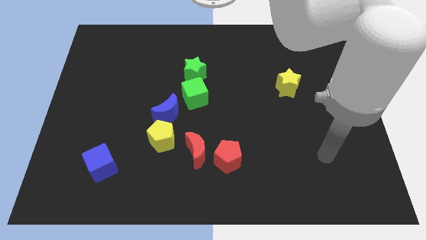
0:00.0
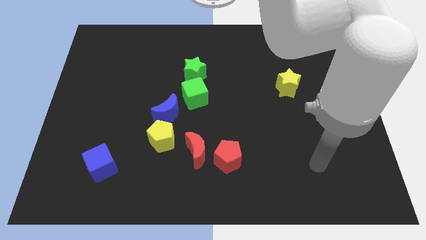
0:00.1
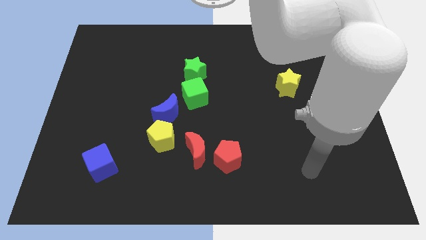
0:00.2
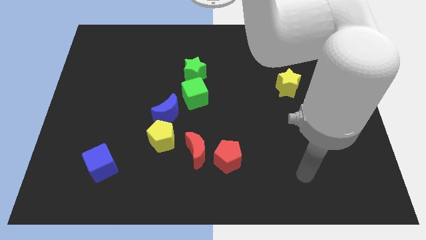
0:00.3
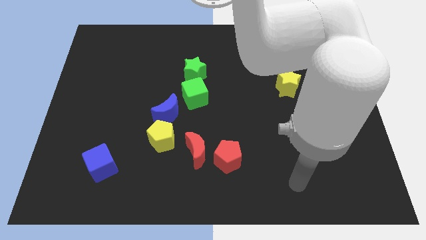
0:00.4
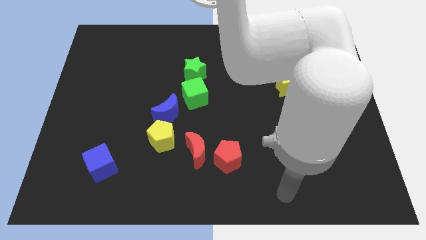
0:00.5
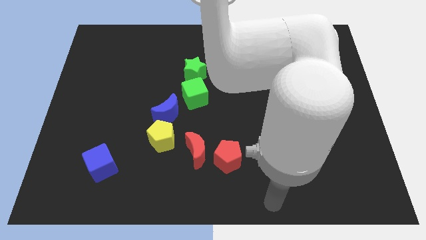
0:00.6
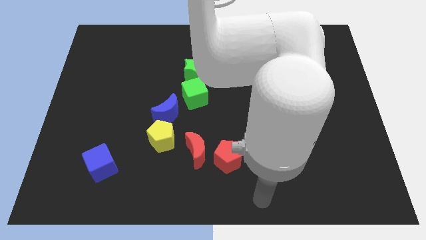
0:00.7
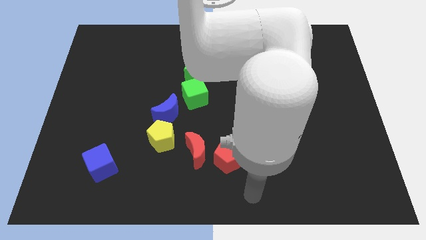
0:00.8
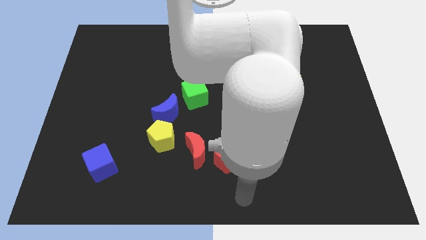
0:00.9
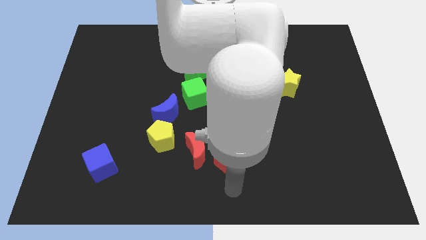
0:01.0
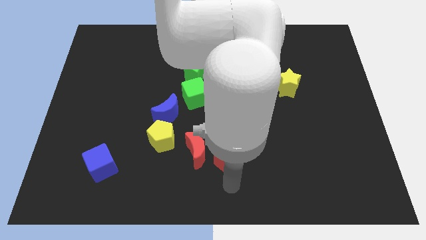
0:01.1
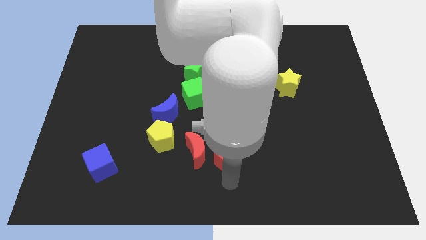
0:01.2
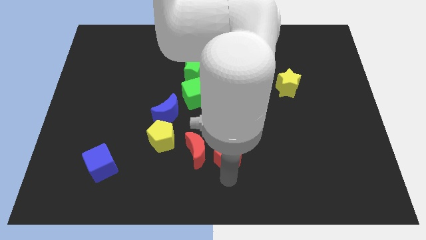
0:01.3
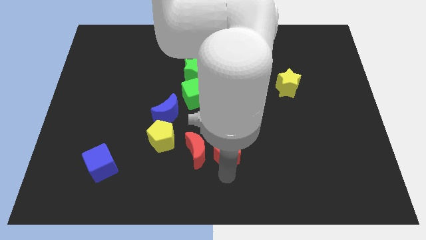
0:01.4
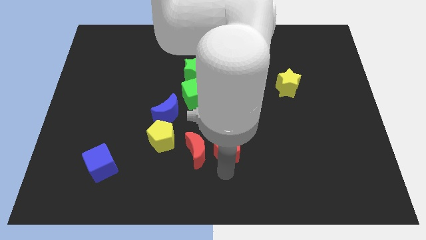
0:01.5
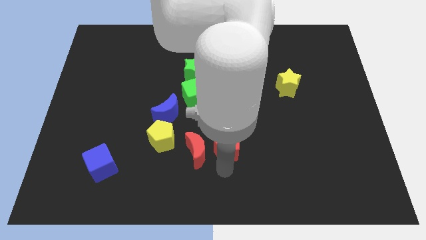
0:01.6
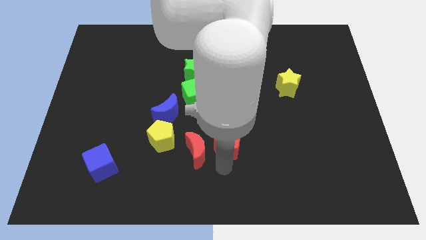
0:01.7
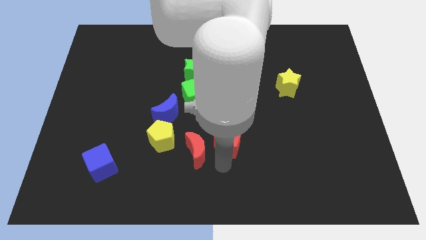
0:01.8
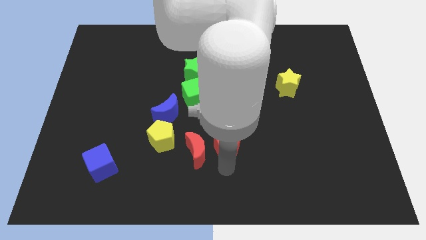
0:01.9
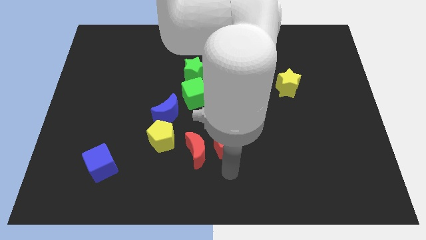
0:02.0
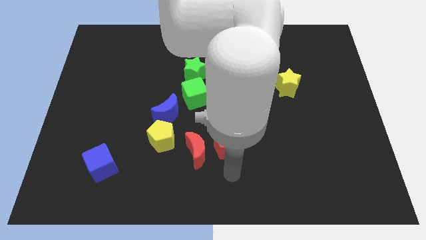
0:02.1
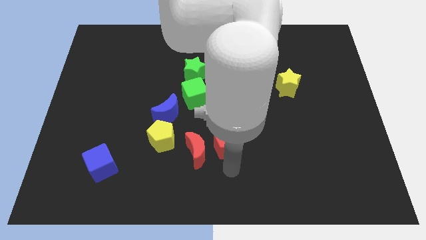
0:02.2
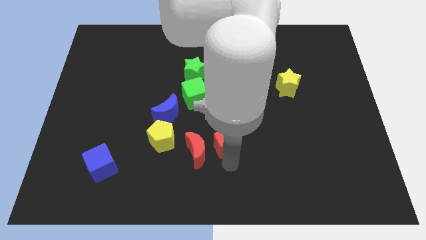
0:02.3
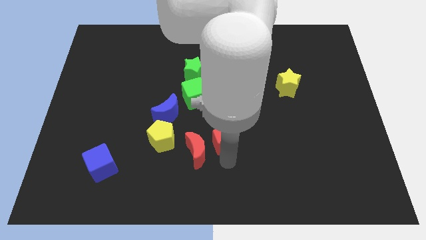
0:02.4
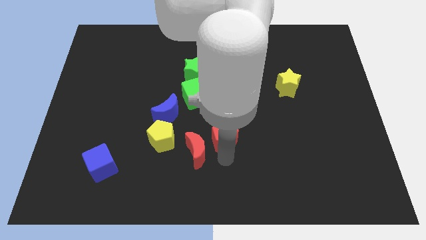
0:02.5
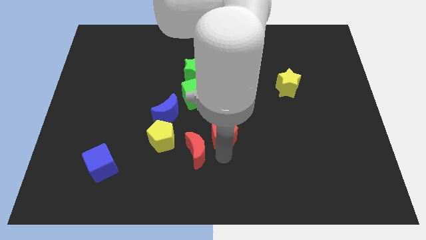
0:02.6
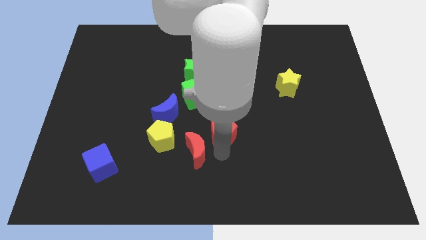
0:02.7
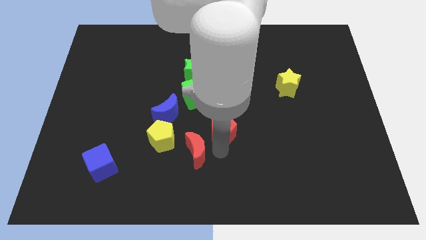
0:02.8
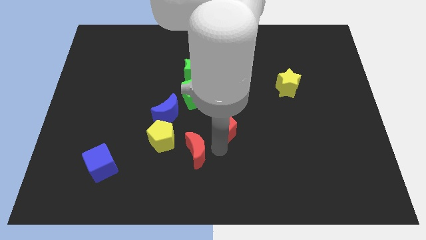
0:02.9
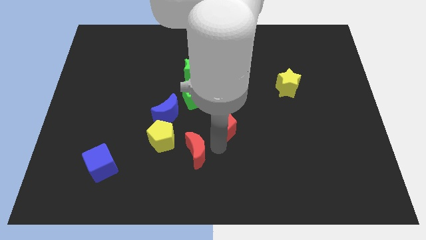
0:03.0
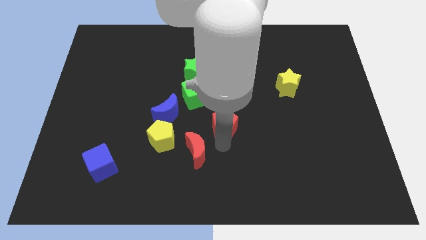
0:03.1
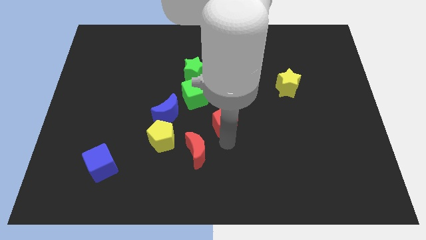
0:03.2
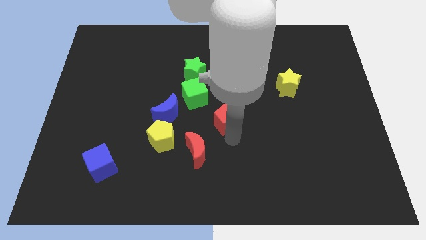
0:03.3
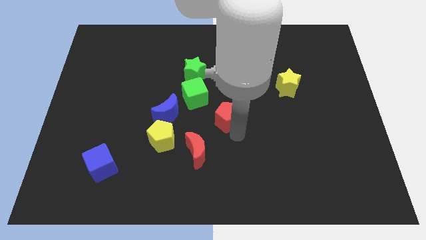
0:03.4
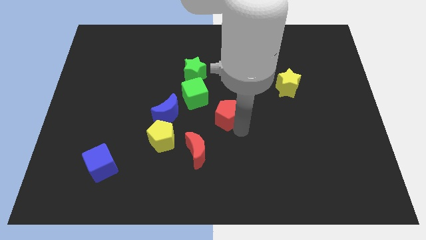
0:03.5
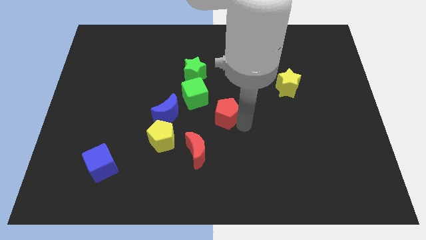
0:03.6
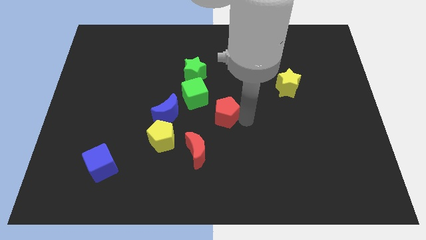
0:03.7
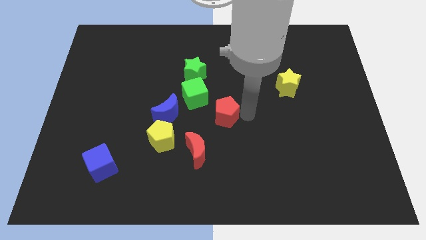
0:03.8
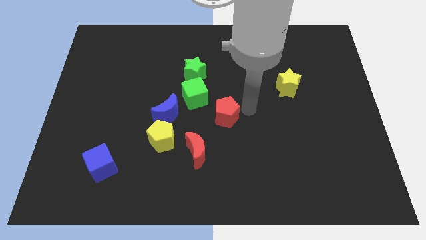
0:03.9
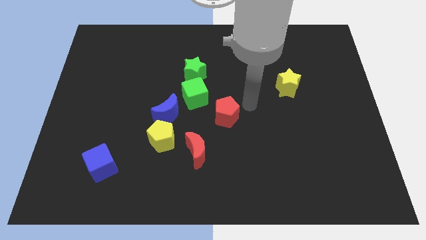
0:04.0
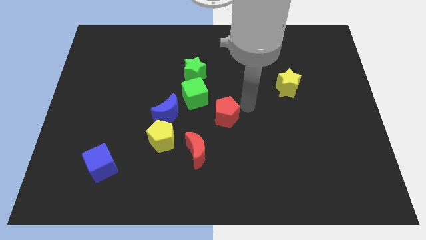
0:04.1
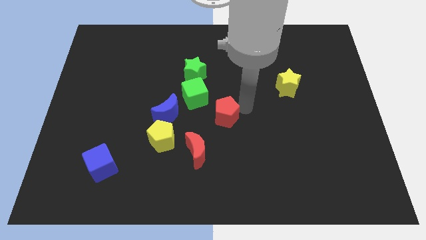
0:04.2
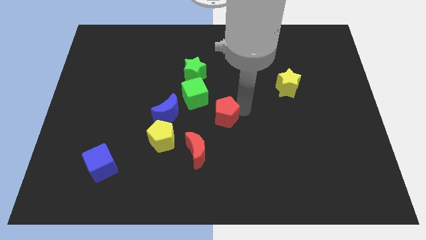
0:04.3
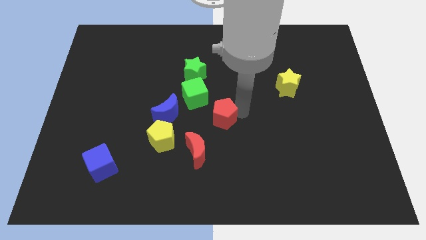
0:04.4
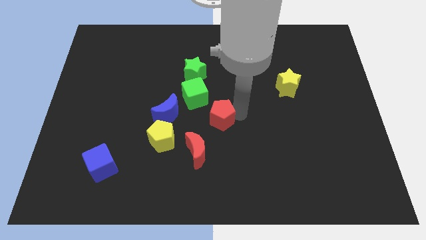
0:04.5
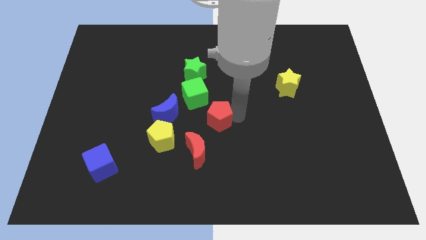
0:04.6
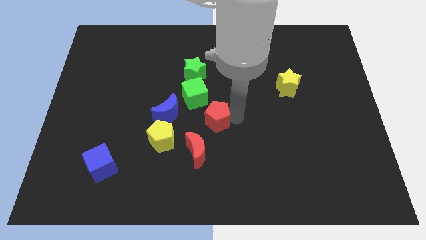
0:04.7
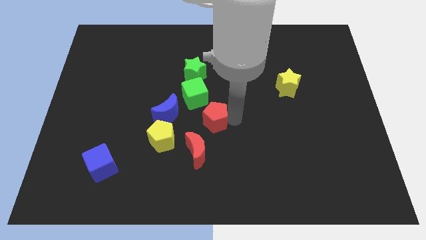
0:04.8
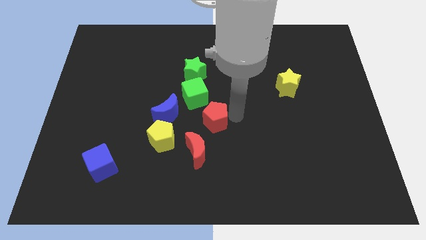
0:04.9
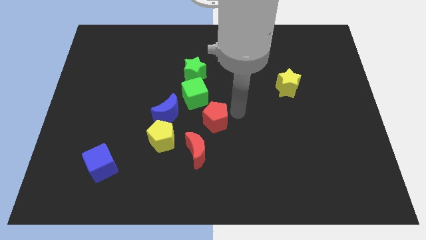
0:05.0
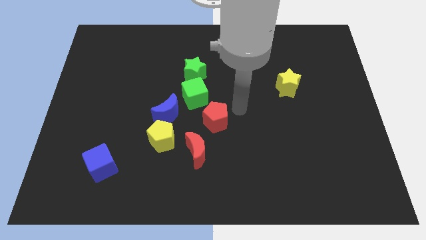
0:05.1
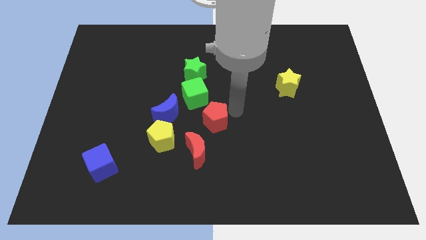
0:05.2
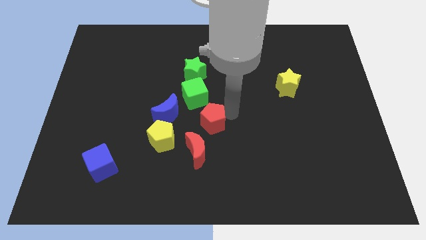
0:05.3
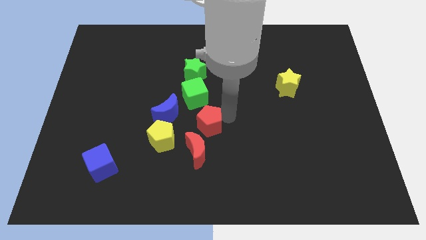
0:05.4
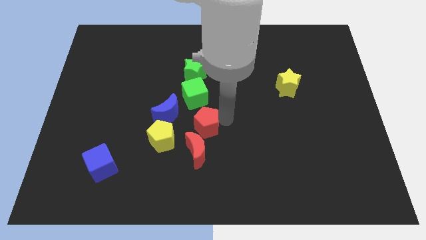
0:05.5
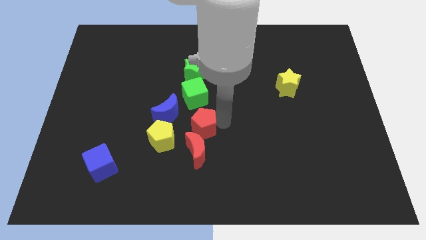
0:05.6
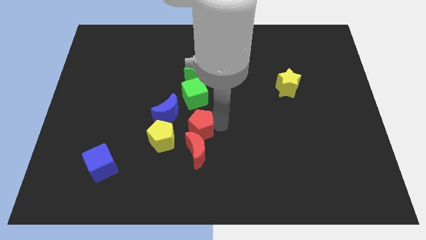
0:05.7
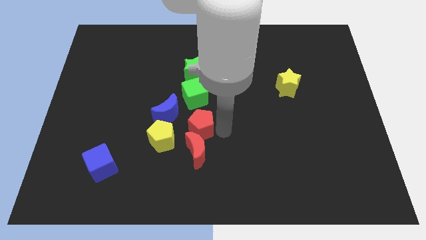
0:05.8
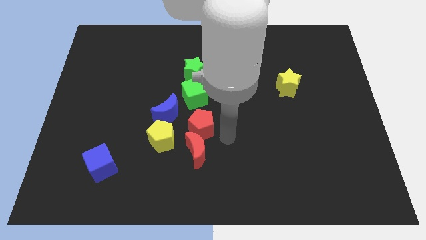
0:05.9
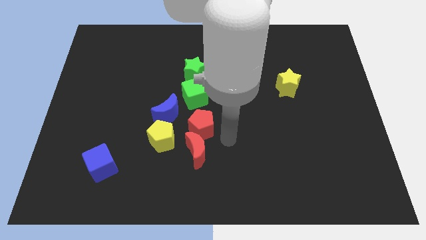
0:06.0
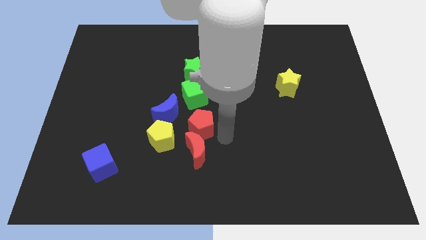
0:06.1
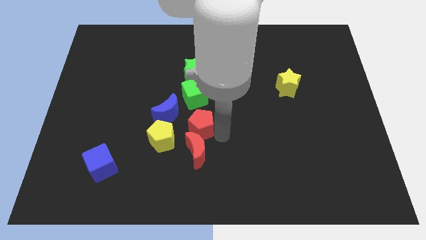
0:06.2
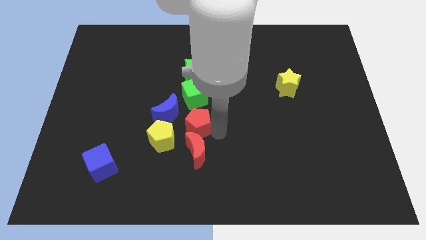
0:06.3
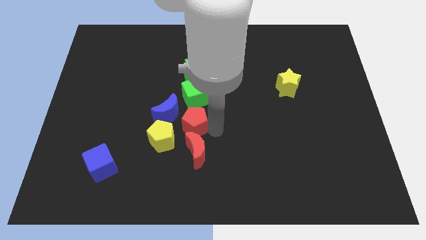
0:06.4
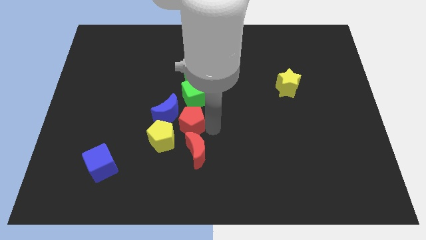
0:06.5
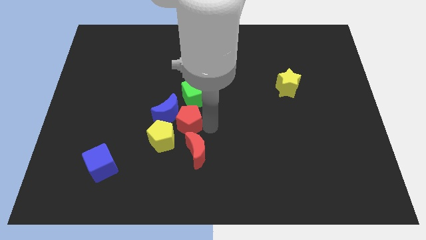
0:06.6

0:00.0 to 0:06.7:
slide the red pentagon towards the blue moon
